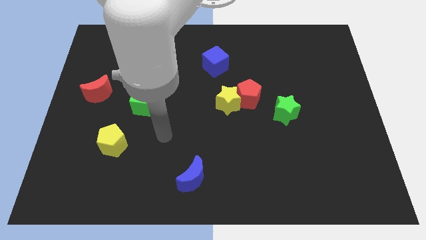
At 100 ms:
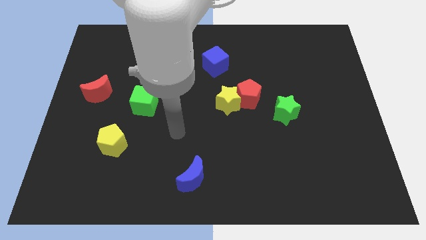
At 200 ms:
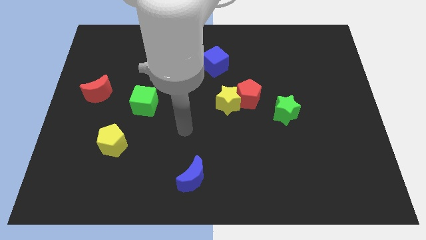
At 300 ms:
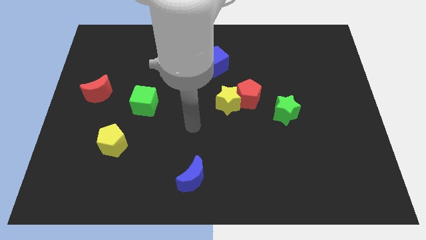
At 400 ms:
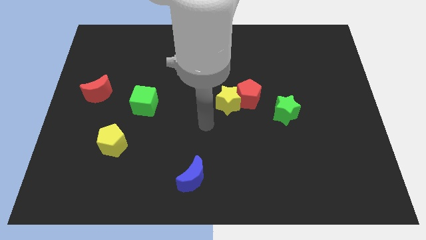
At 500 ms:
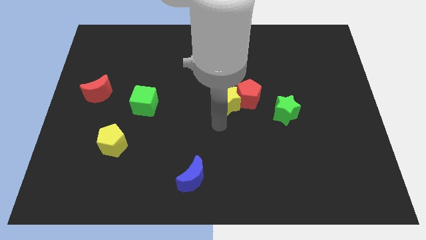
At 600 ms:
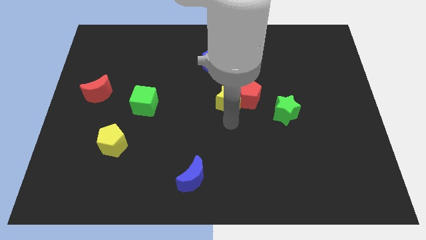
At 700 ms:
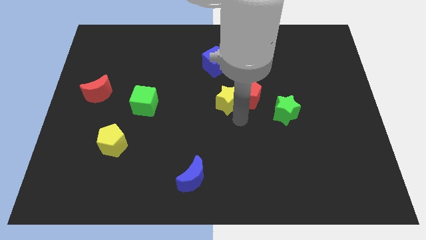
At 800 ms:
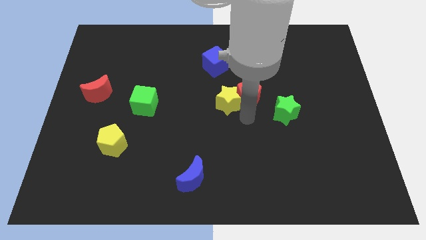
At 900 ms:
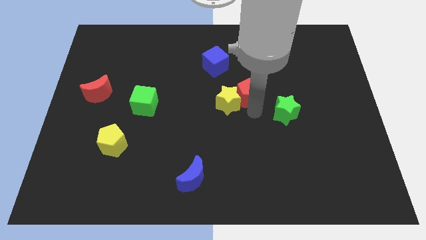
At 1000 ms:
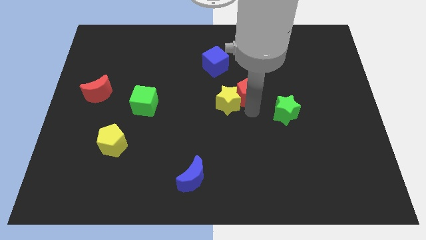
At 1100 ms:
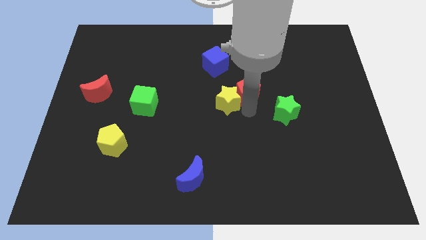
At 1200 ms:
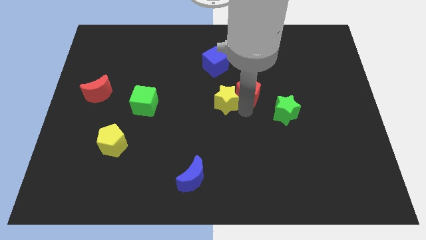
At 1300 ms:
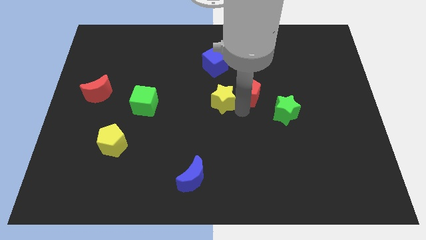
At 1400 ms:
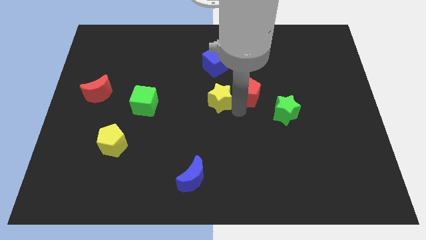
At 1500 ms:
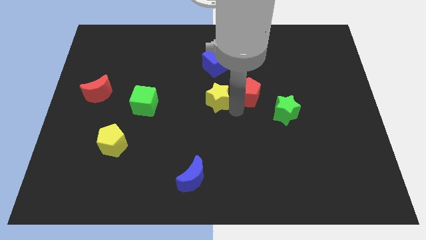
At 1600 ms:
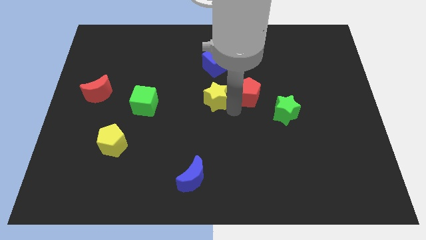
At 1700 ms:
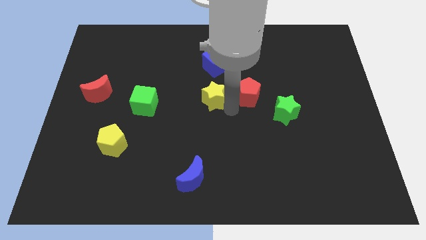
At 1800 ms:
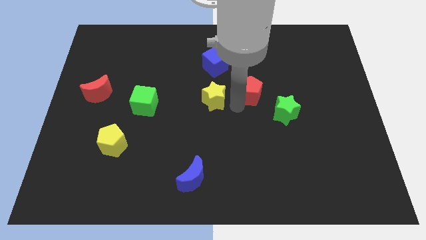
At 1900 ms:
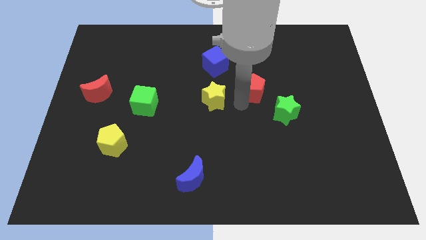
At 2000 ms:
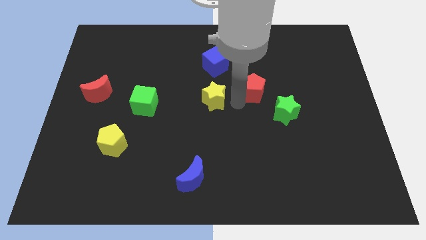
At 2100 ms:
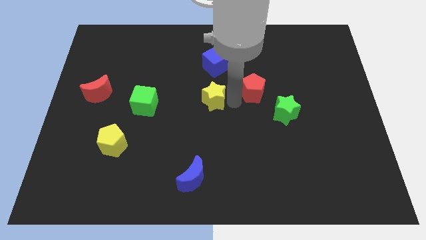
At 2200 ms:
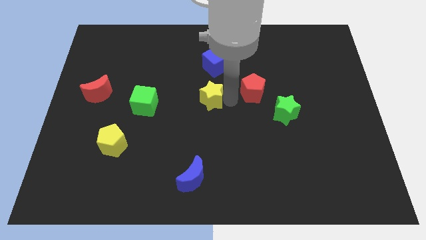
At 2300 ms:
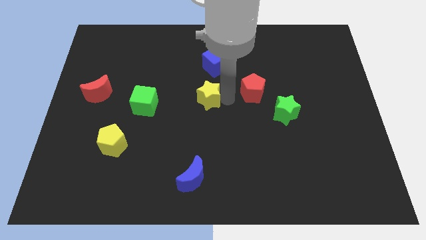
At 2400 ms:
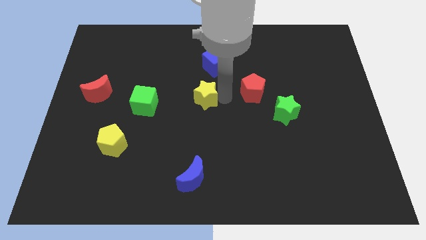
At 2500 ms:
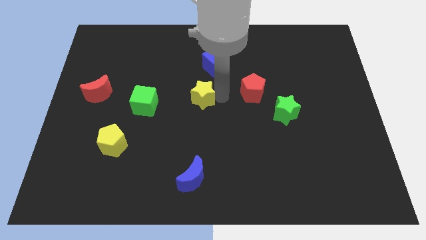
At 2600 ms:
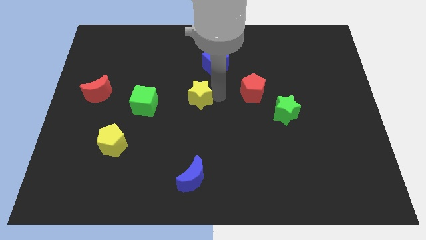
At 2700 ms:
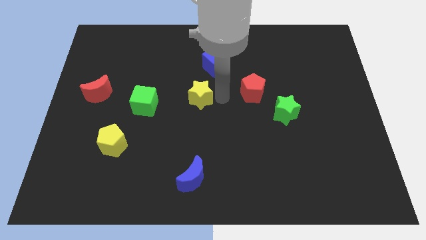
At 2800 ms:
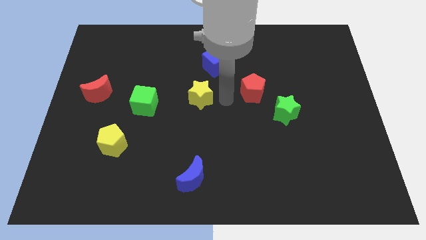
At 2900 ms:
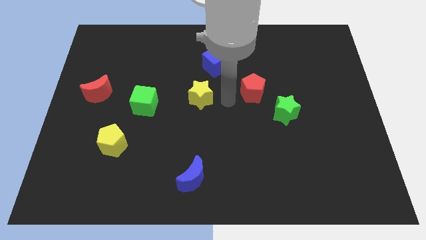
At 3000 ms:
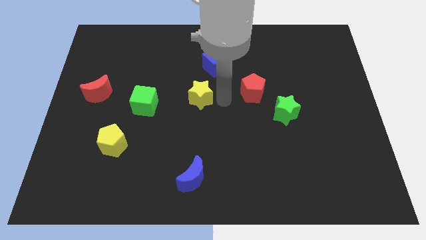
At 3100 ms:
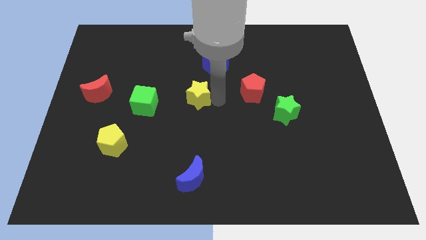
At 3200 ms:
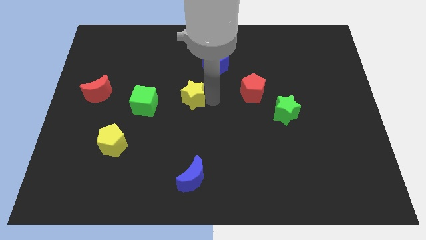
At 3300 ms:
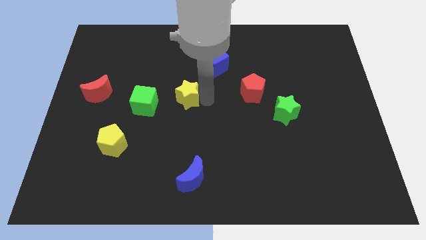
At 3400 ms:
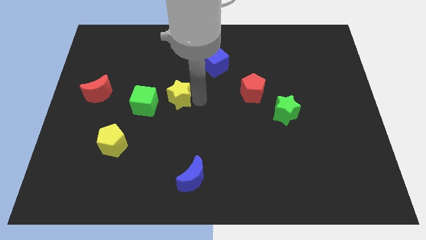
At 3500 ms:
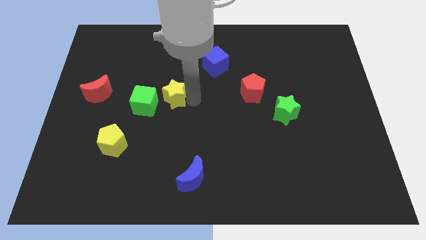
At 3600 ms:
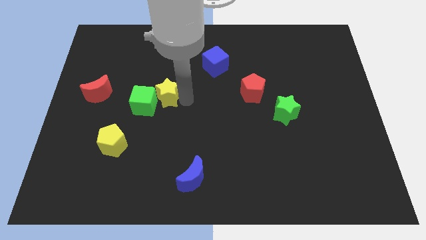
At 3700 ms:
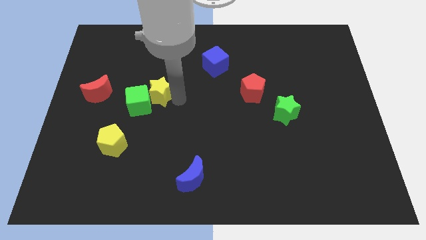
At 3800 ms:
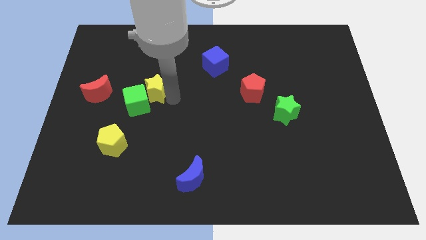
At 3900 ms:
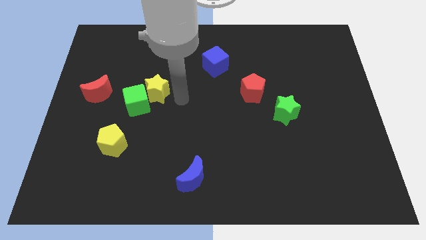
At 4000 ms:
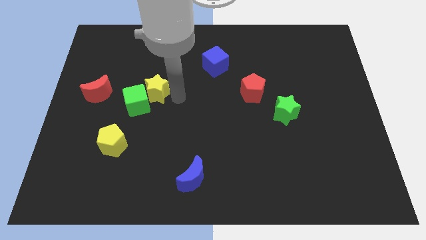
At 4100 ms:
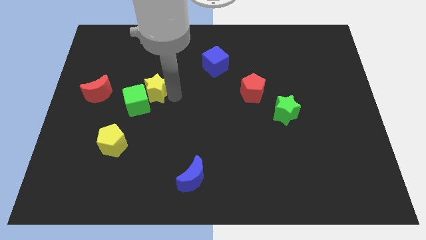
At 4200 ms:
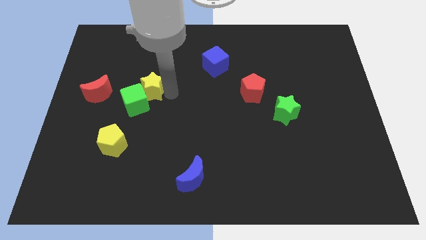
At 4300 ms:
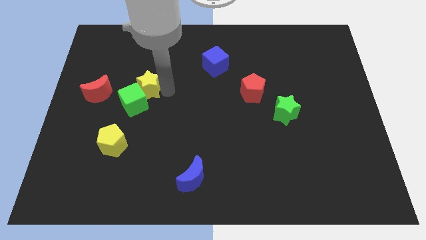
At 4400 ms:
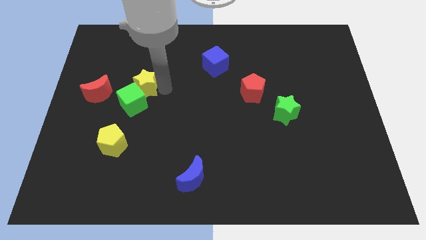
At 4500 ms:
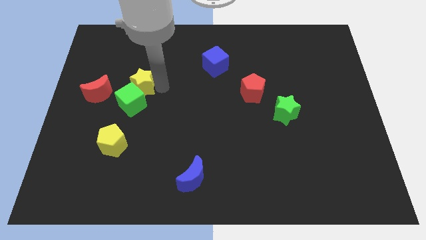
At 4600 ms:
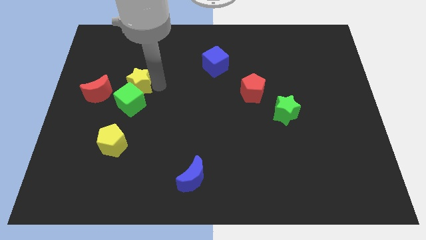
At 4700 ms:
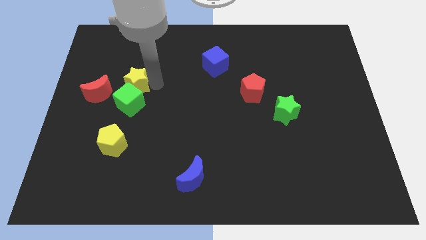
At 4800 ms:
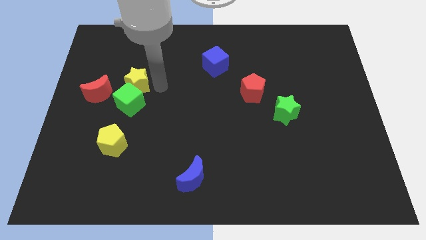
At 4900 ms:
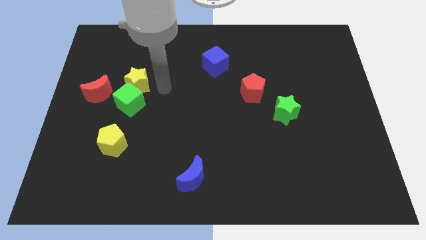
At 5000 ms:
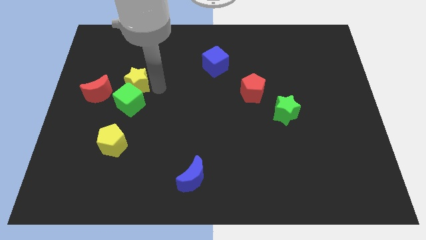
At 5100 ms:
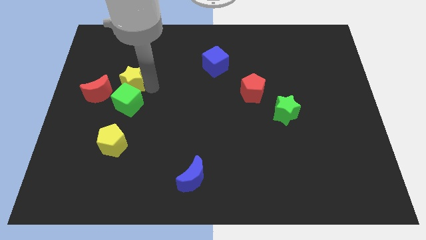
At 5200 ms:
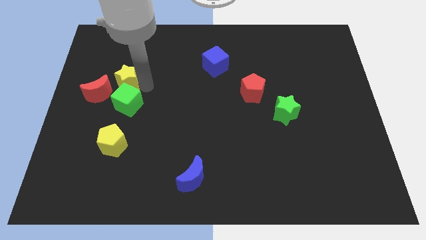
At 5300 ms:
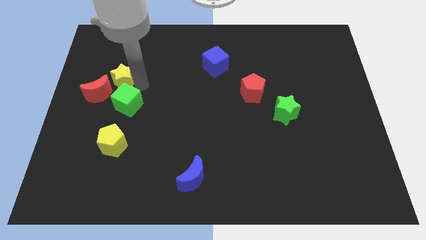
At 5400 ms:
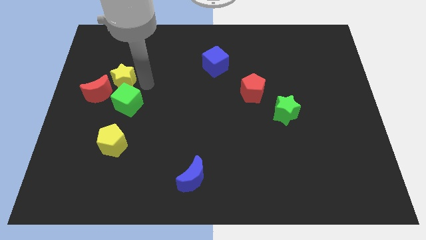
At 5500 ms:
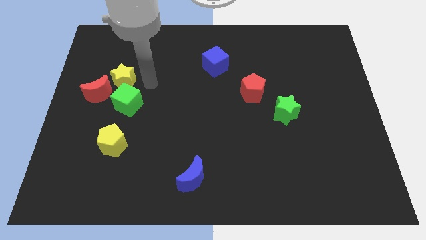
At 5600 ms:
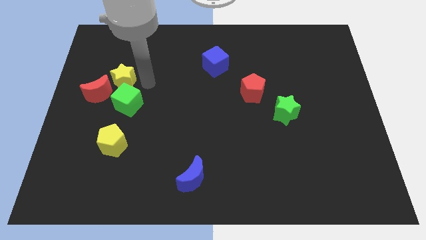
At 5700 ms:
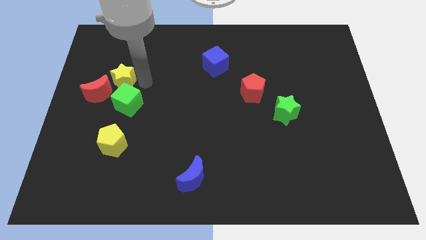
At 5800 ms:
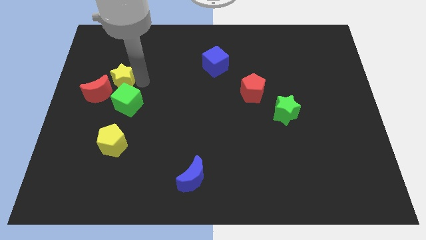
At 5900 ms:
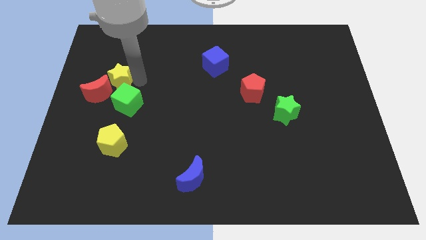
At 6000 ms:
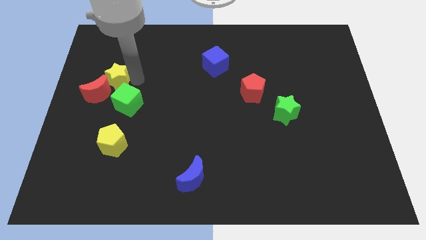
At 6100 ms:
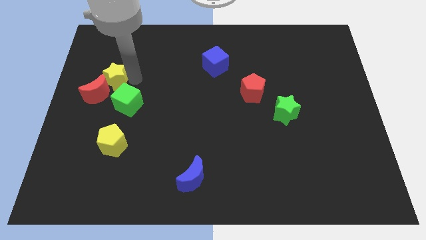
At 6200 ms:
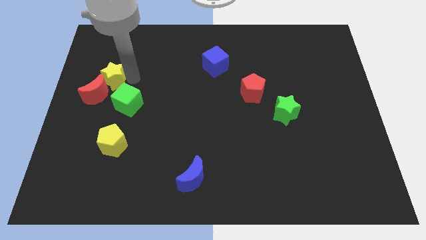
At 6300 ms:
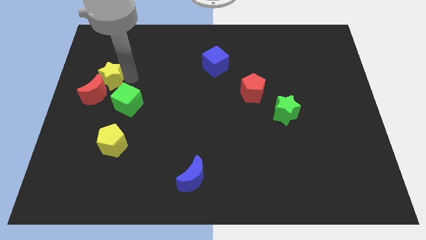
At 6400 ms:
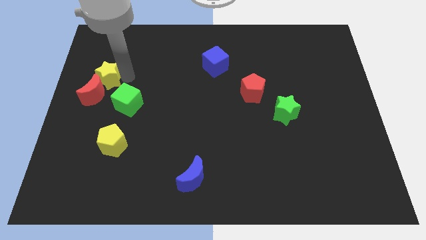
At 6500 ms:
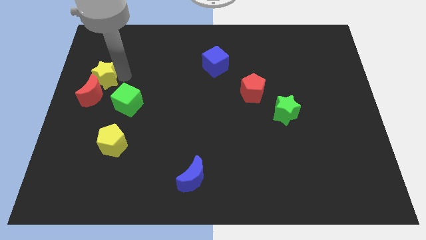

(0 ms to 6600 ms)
slide the yellow star to the left side of the board

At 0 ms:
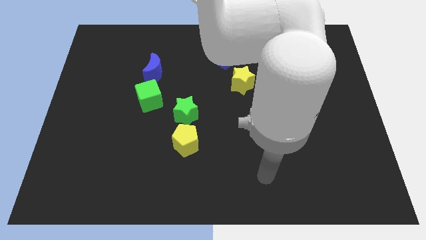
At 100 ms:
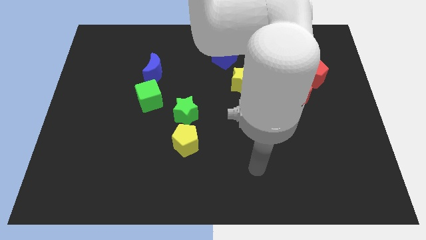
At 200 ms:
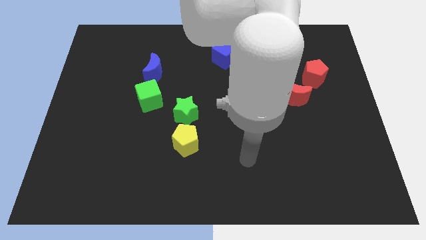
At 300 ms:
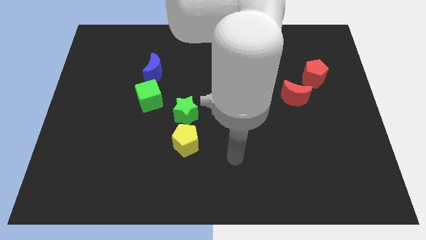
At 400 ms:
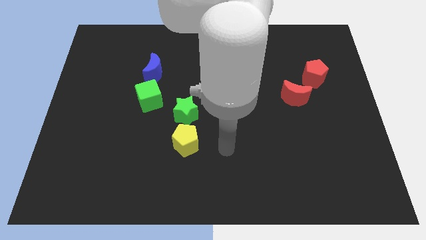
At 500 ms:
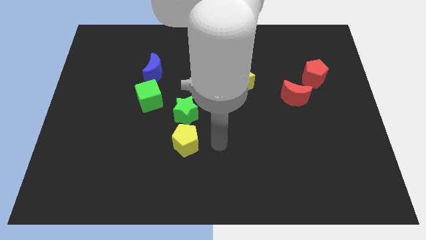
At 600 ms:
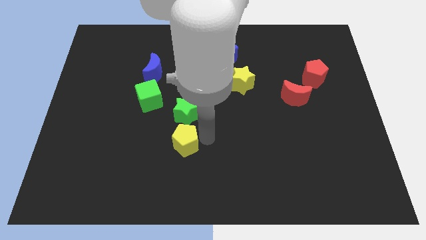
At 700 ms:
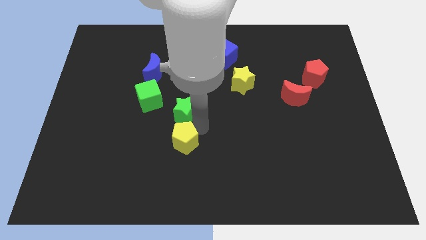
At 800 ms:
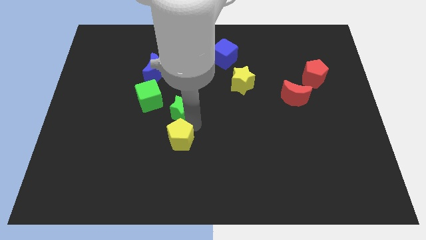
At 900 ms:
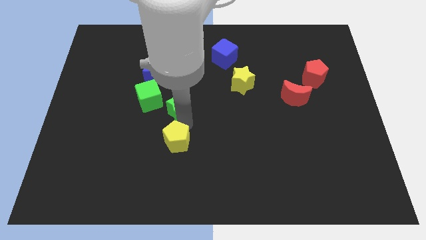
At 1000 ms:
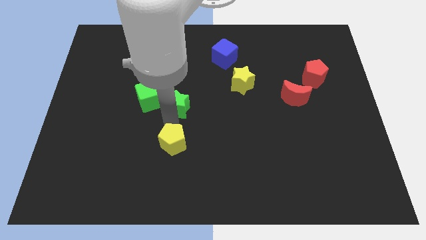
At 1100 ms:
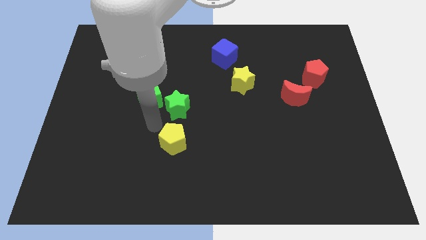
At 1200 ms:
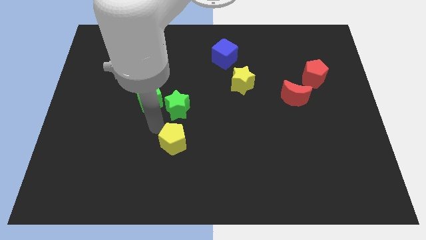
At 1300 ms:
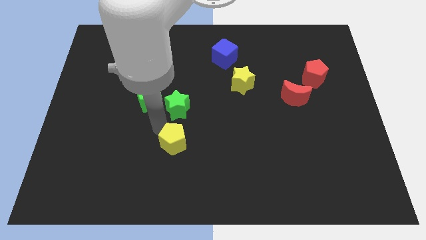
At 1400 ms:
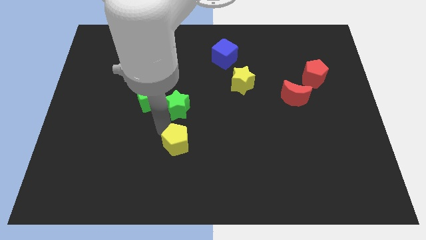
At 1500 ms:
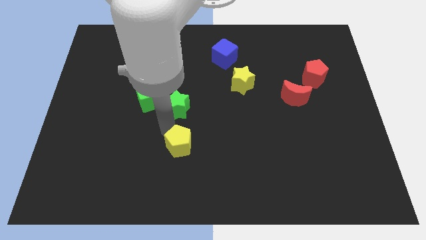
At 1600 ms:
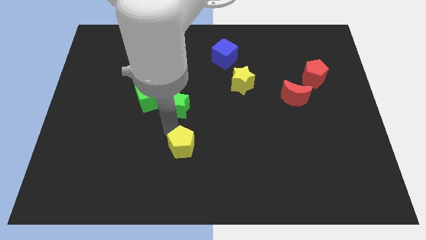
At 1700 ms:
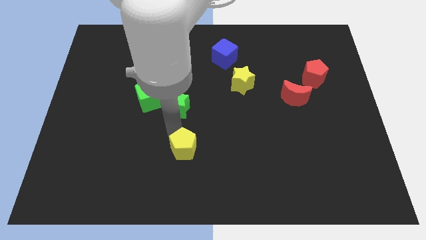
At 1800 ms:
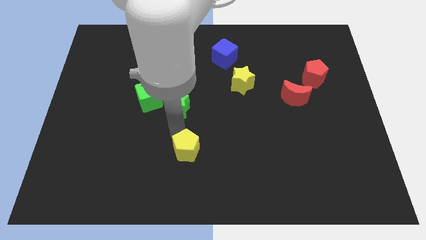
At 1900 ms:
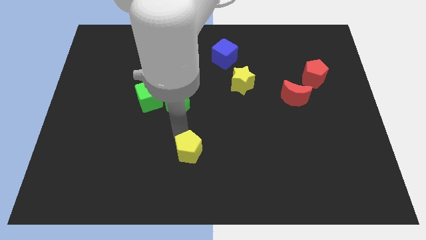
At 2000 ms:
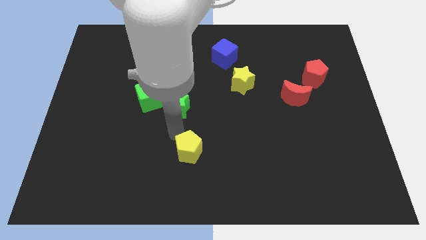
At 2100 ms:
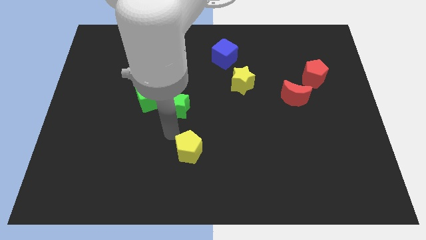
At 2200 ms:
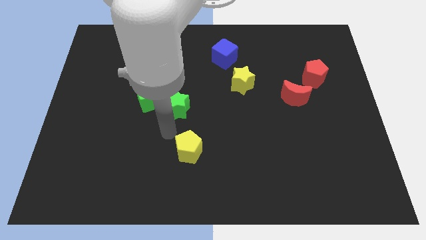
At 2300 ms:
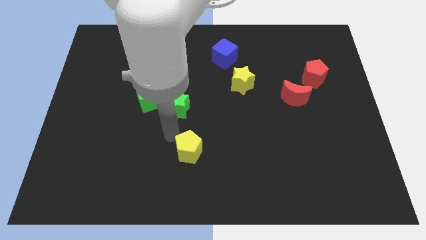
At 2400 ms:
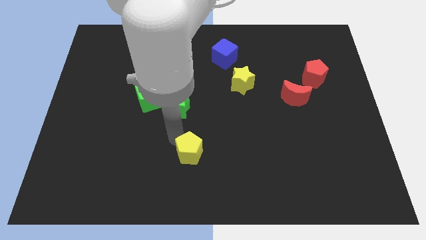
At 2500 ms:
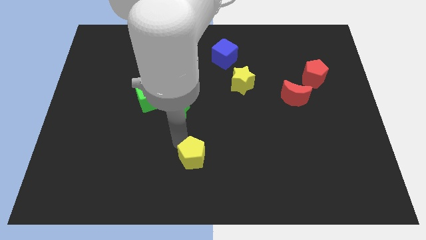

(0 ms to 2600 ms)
push the yellow pentagon to the bottom
